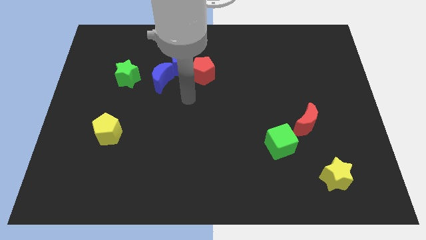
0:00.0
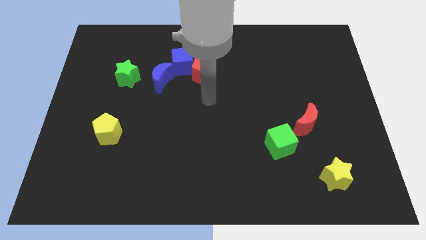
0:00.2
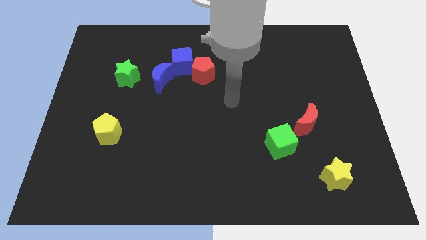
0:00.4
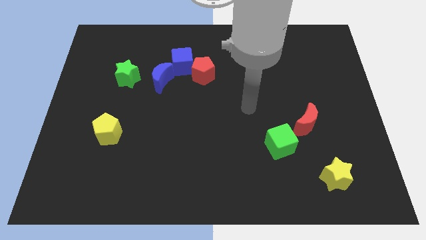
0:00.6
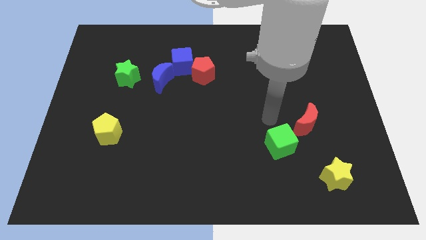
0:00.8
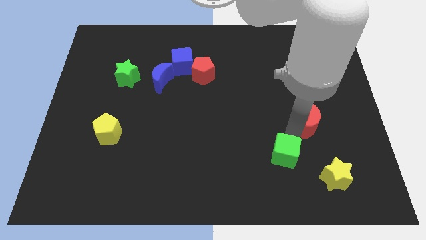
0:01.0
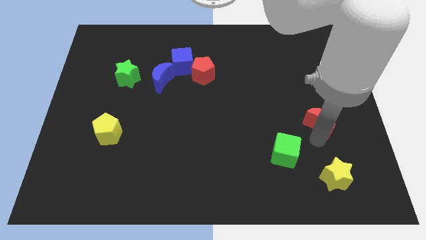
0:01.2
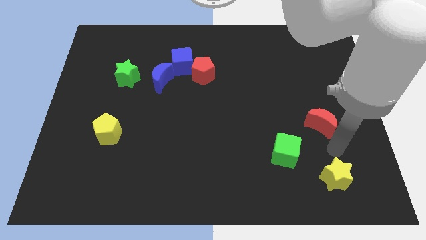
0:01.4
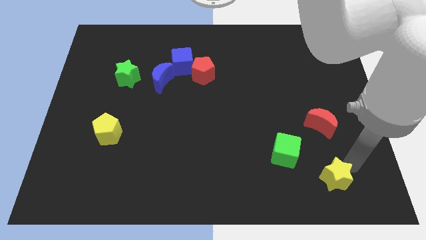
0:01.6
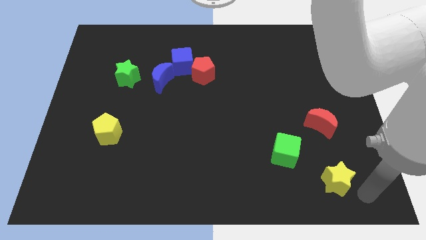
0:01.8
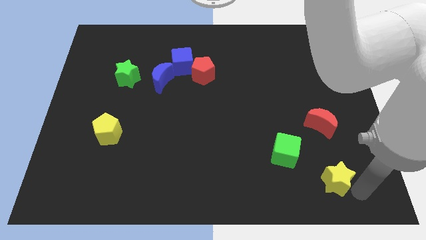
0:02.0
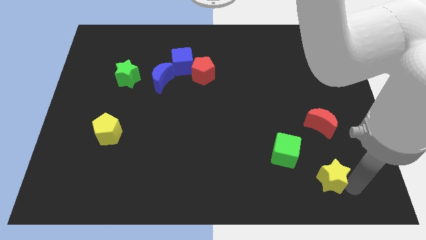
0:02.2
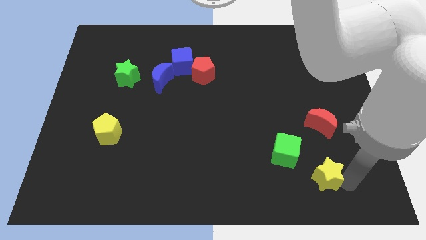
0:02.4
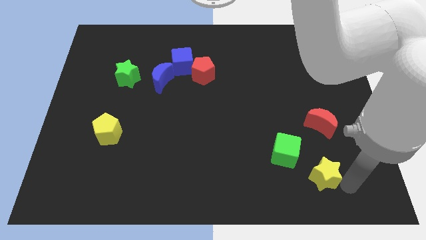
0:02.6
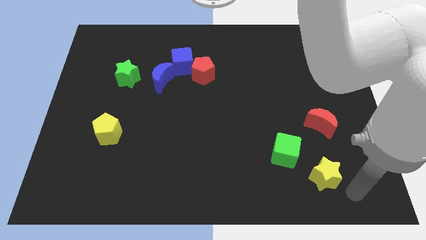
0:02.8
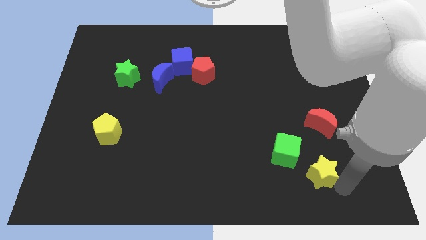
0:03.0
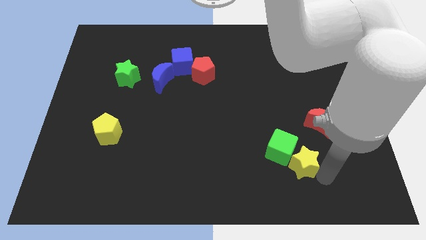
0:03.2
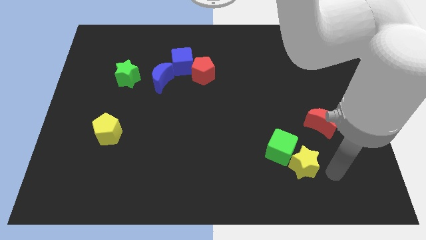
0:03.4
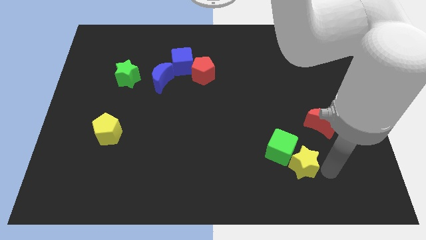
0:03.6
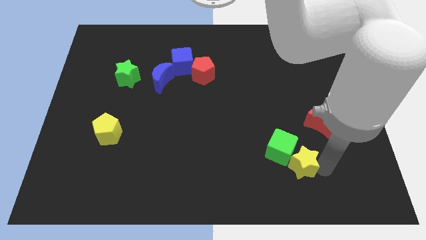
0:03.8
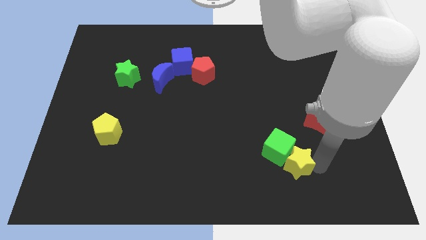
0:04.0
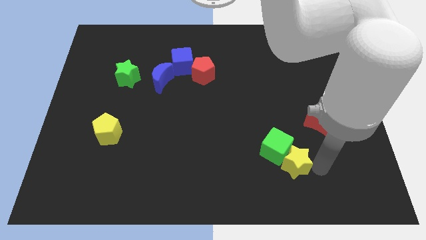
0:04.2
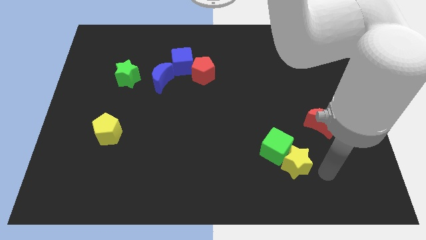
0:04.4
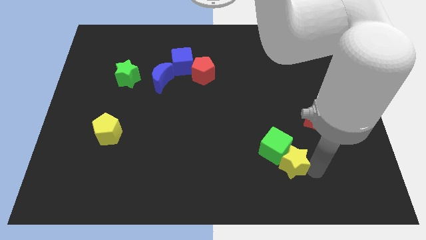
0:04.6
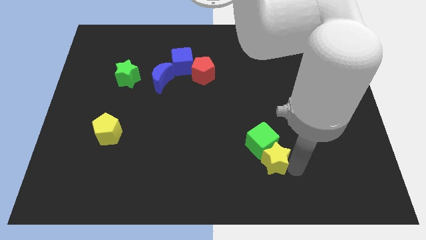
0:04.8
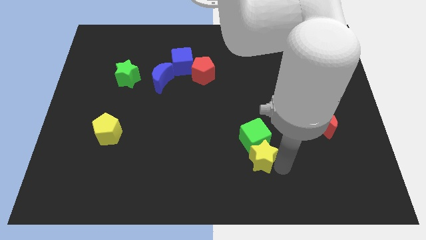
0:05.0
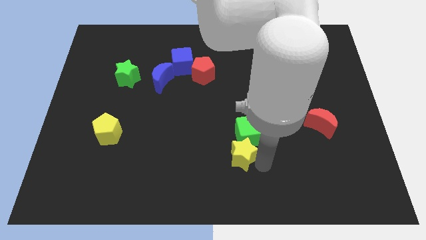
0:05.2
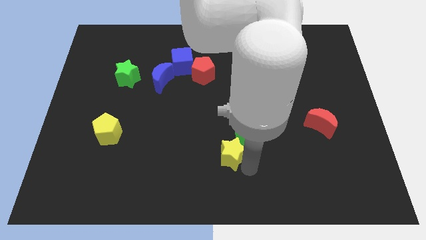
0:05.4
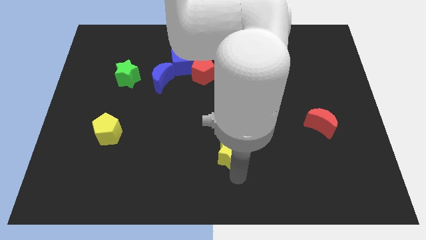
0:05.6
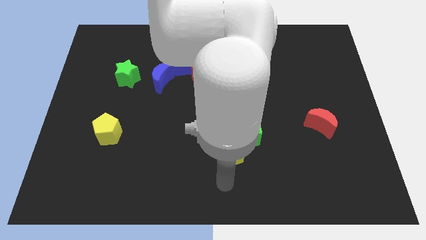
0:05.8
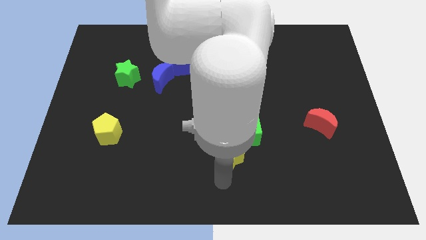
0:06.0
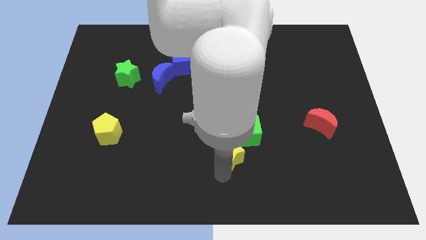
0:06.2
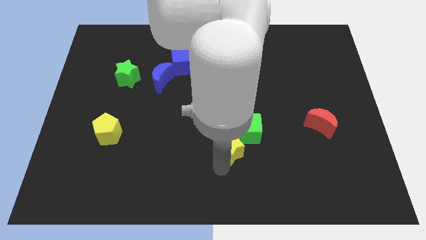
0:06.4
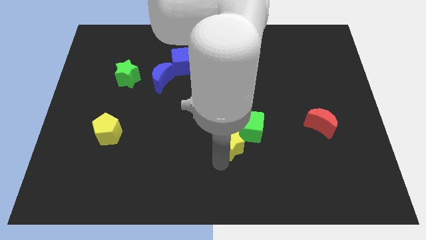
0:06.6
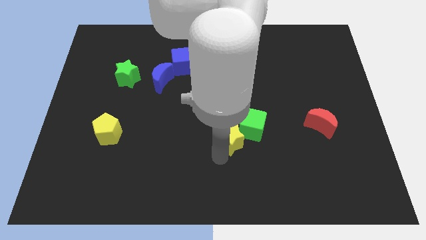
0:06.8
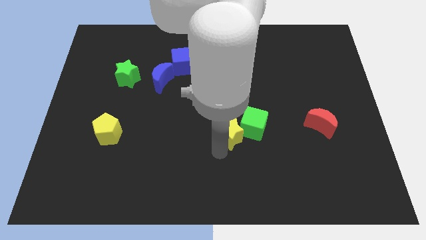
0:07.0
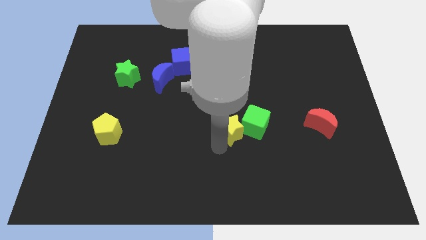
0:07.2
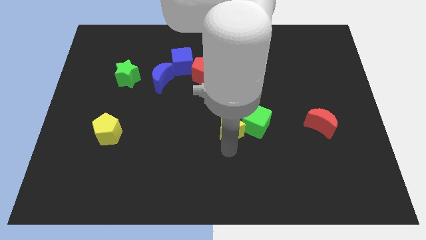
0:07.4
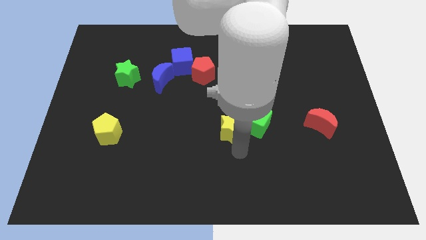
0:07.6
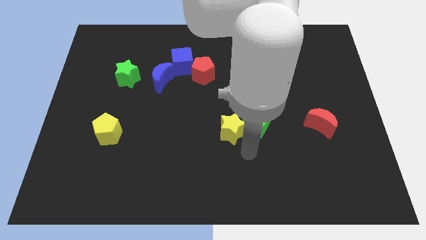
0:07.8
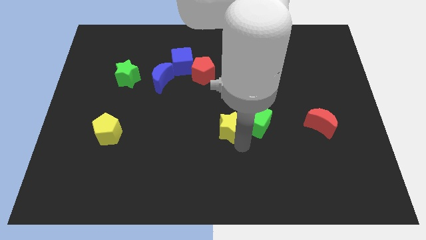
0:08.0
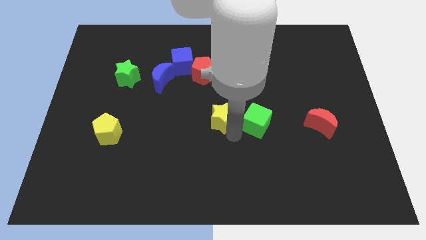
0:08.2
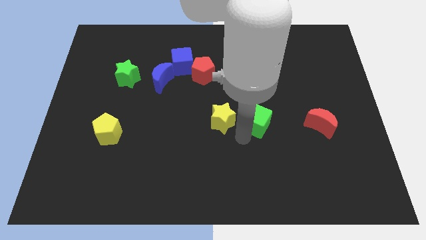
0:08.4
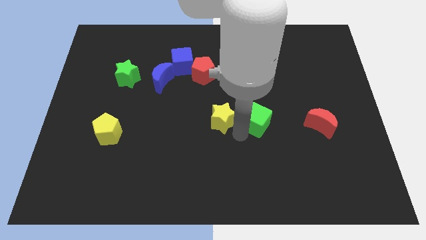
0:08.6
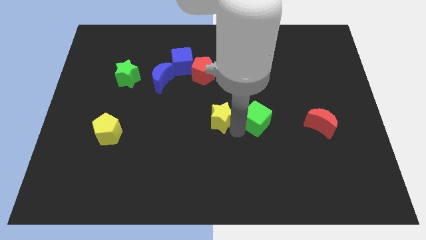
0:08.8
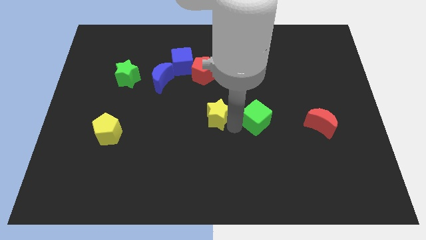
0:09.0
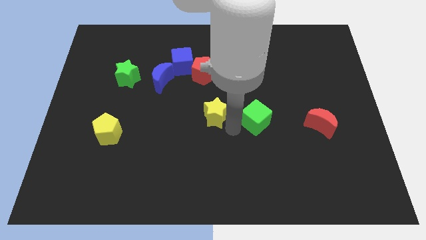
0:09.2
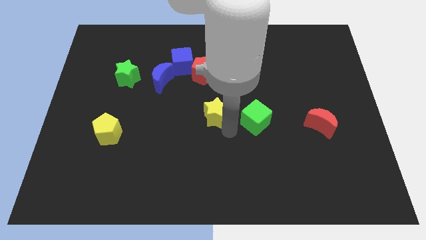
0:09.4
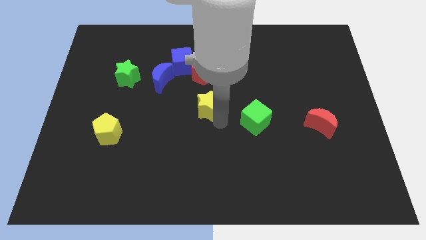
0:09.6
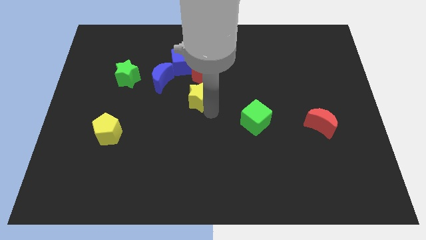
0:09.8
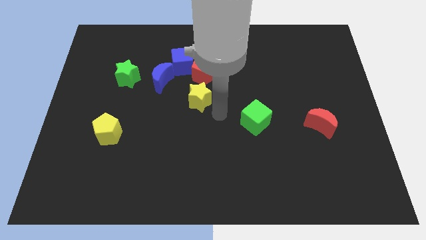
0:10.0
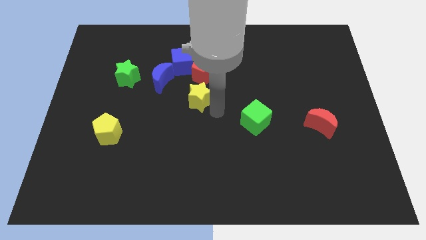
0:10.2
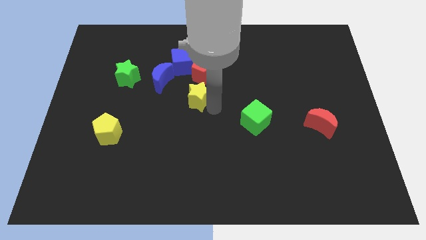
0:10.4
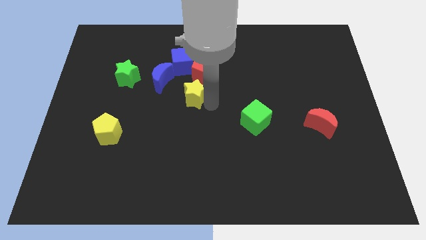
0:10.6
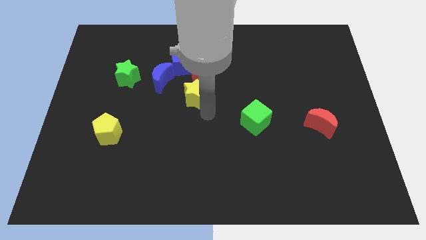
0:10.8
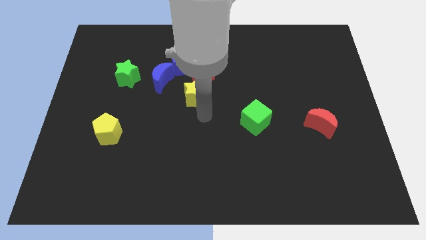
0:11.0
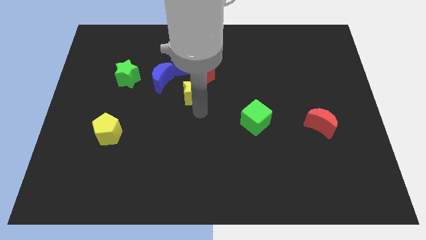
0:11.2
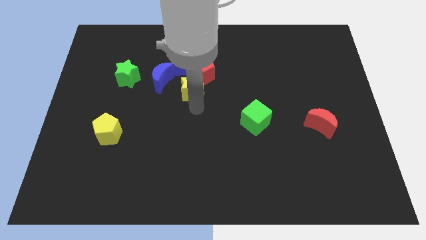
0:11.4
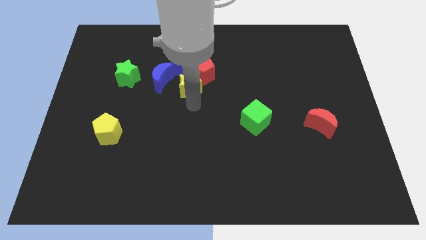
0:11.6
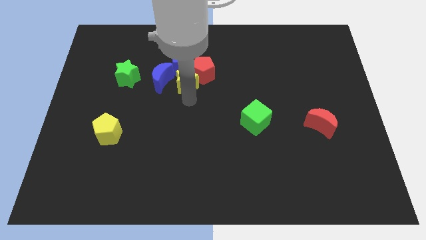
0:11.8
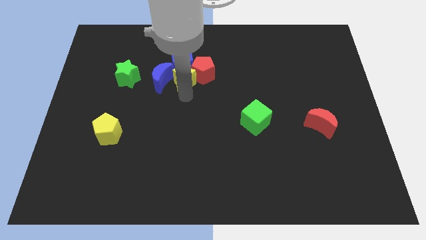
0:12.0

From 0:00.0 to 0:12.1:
push the yellow star to the blue cube

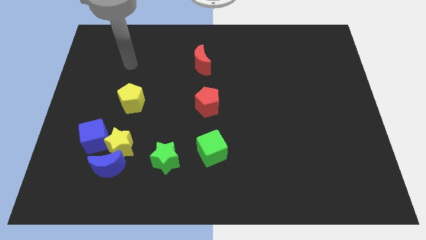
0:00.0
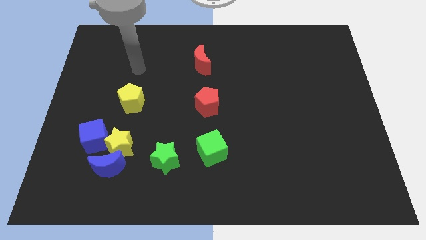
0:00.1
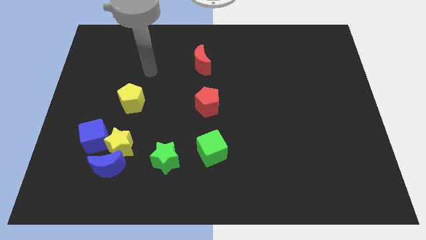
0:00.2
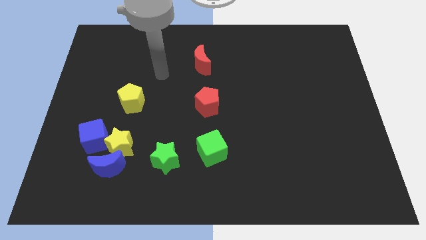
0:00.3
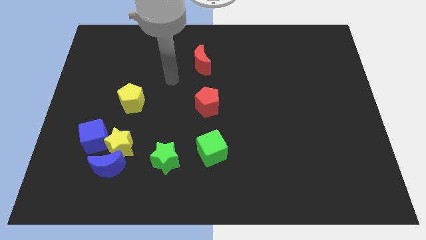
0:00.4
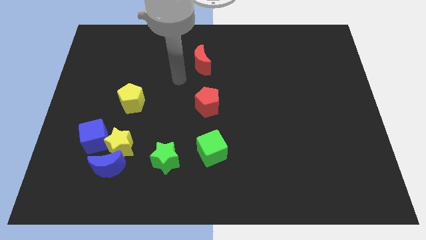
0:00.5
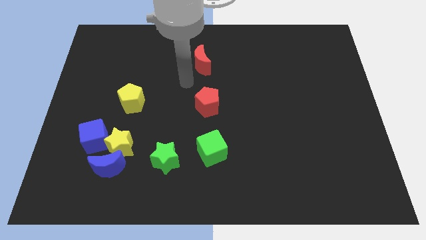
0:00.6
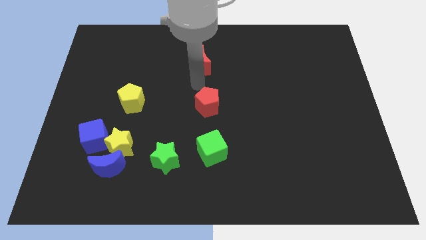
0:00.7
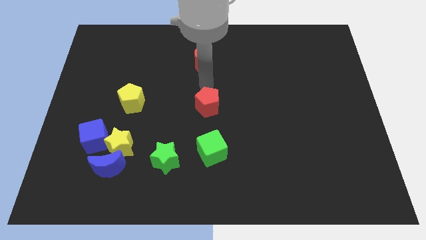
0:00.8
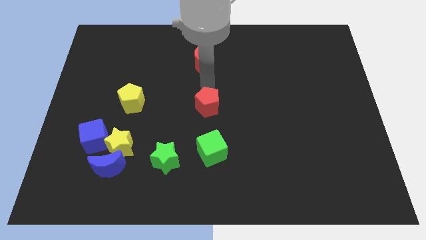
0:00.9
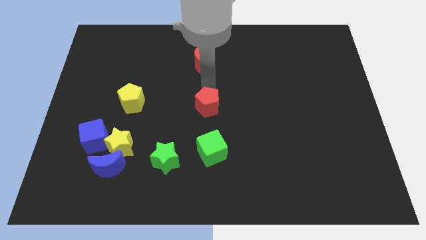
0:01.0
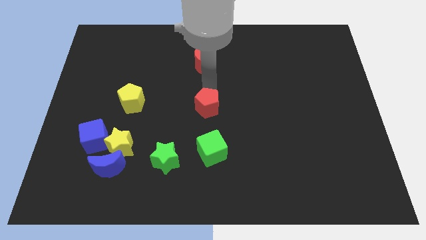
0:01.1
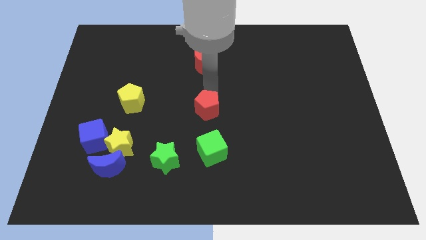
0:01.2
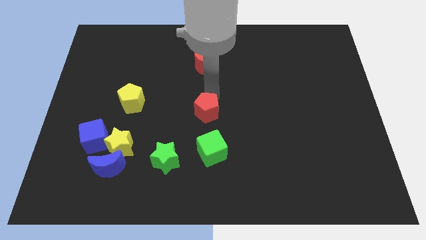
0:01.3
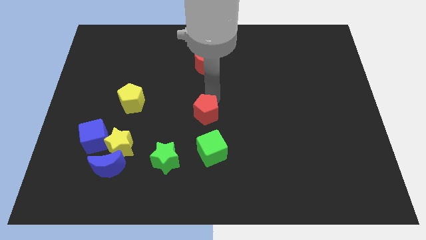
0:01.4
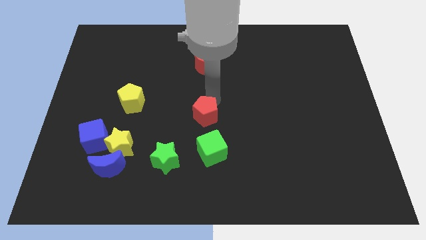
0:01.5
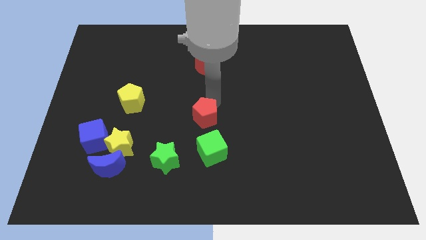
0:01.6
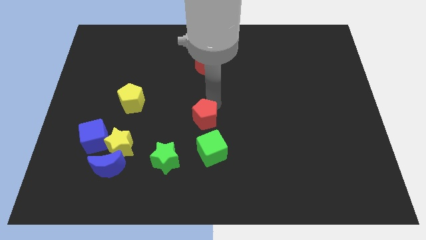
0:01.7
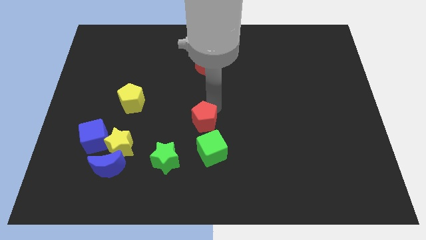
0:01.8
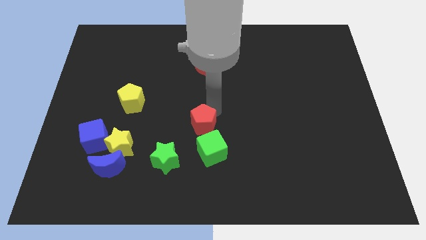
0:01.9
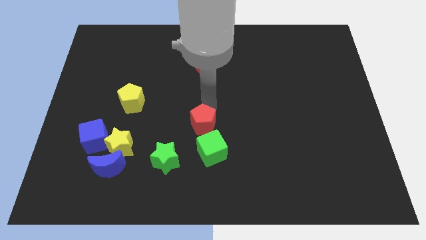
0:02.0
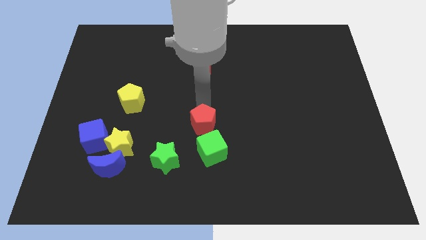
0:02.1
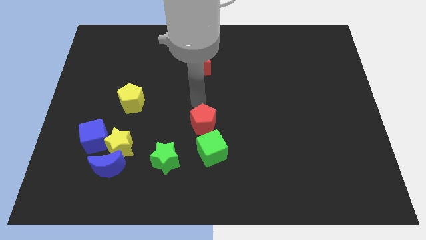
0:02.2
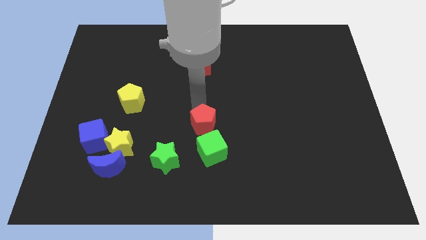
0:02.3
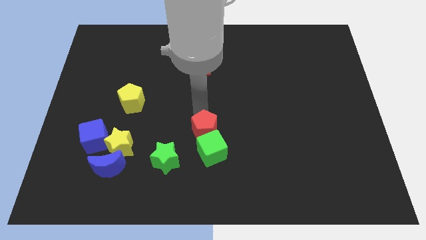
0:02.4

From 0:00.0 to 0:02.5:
move the red pentagon towards the green cube
